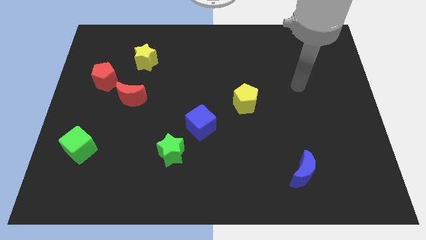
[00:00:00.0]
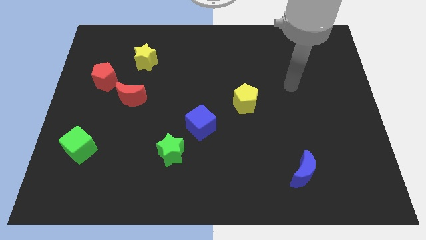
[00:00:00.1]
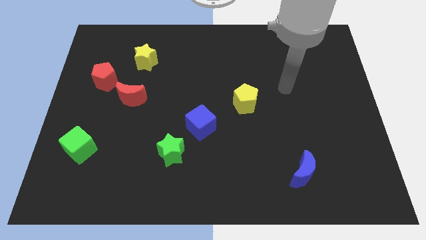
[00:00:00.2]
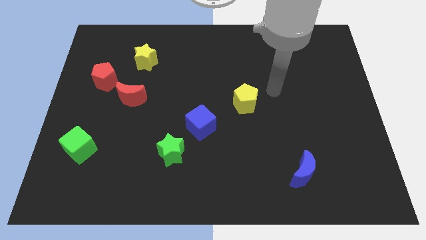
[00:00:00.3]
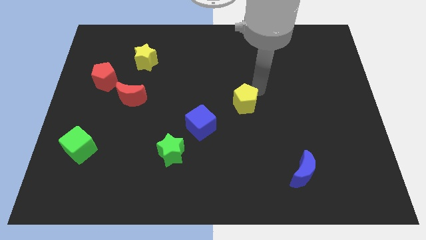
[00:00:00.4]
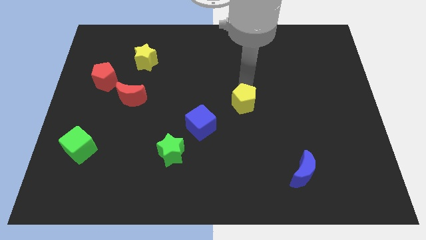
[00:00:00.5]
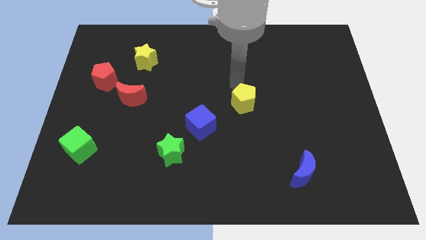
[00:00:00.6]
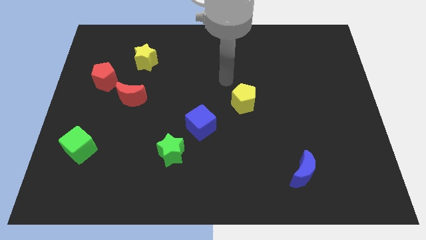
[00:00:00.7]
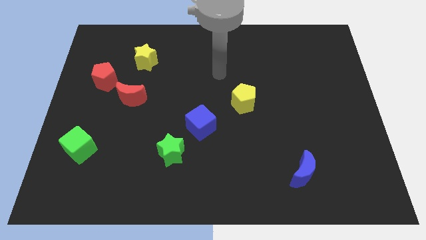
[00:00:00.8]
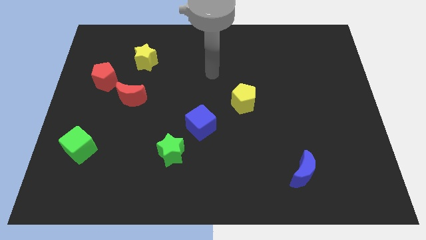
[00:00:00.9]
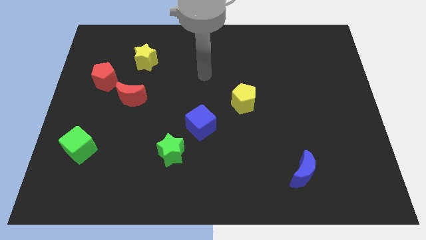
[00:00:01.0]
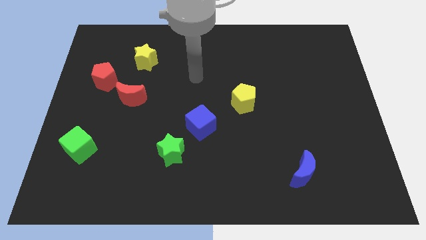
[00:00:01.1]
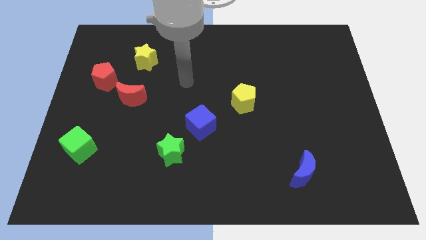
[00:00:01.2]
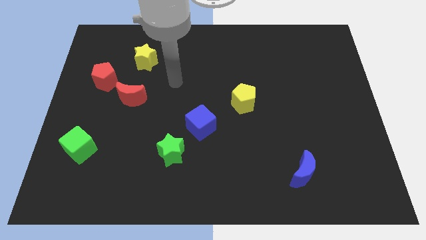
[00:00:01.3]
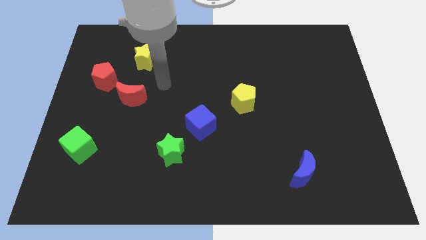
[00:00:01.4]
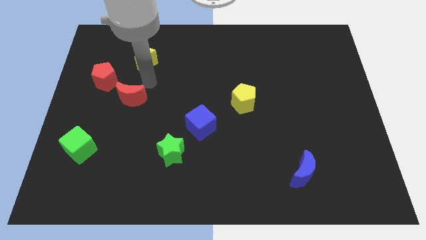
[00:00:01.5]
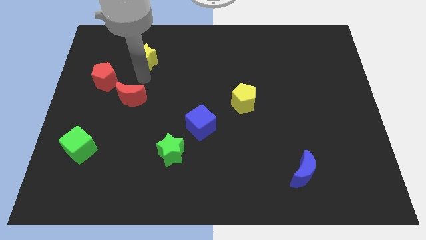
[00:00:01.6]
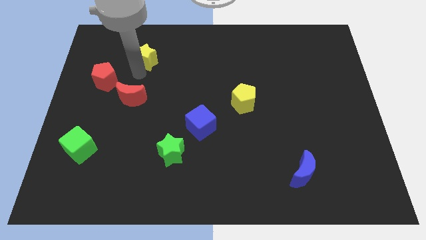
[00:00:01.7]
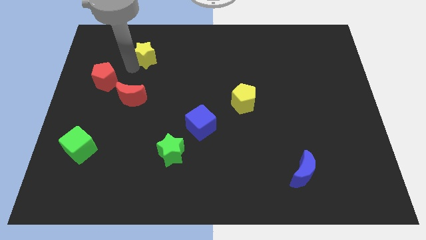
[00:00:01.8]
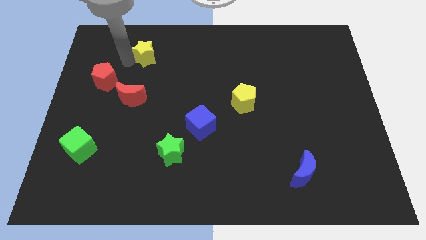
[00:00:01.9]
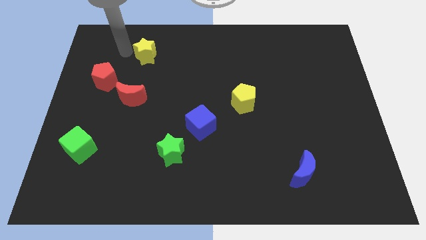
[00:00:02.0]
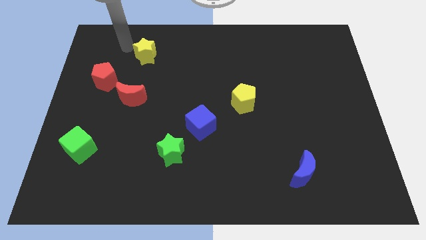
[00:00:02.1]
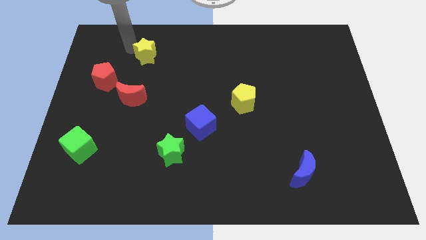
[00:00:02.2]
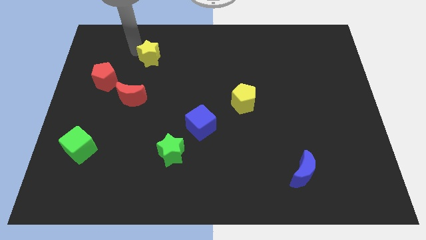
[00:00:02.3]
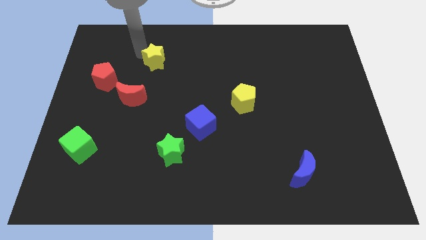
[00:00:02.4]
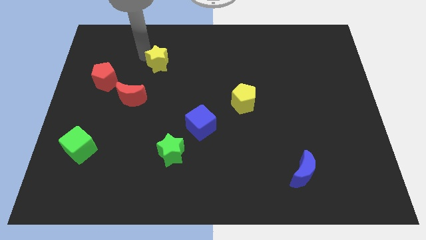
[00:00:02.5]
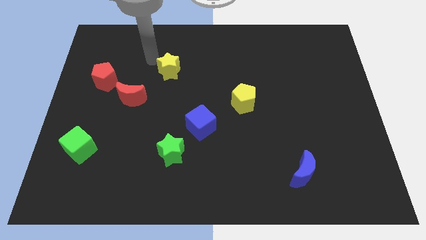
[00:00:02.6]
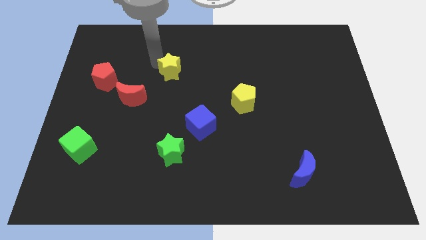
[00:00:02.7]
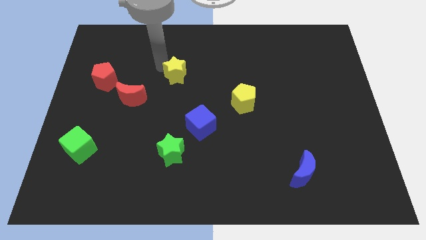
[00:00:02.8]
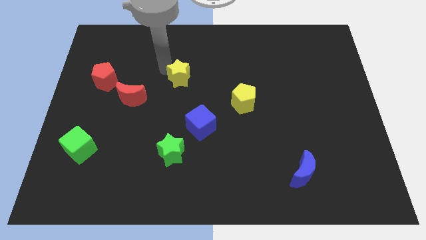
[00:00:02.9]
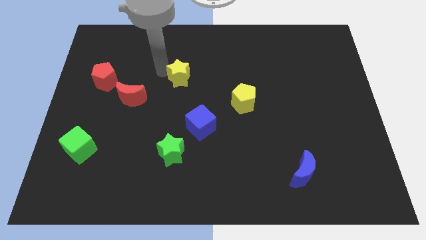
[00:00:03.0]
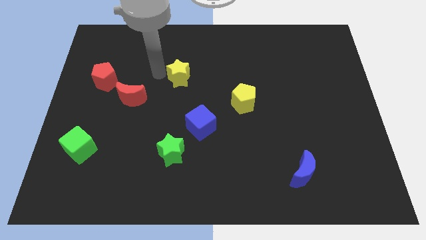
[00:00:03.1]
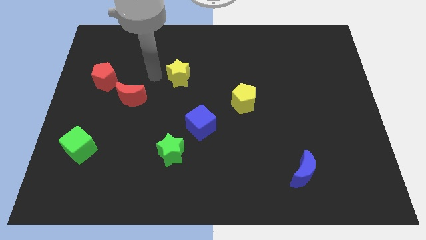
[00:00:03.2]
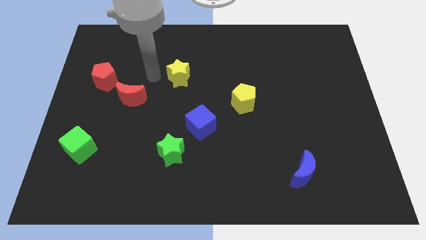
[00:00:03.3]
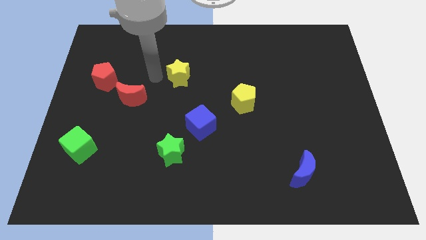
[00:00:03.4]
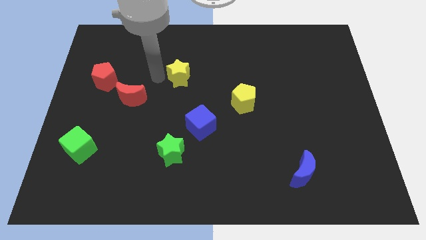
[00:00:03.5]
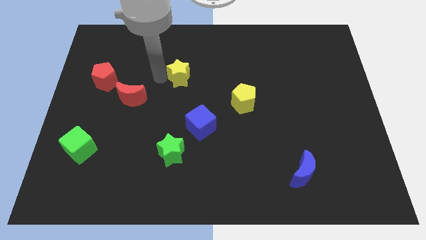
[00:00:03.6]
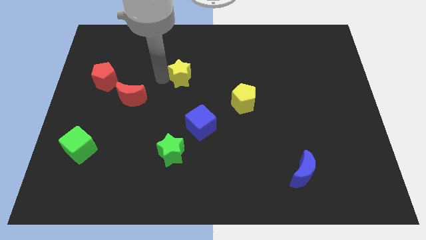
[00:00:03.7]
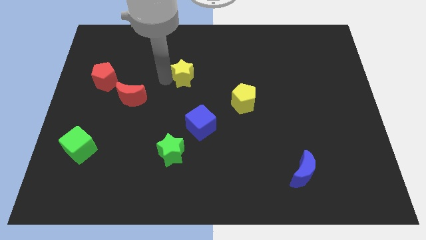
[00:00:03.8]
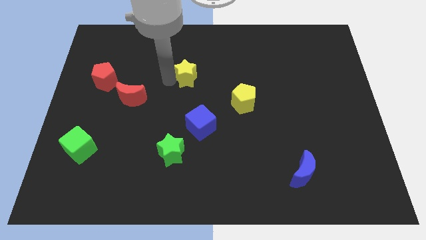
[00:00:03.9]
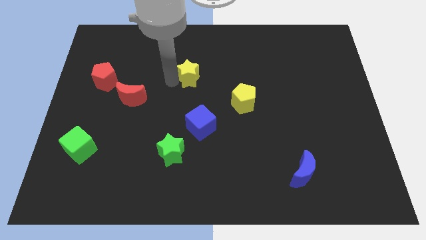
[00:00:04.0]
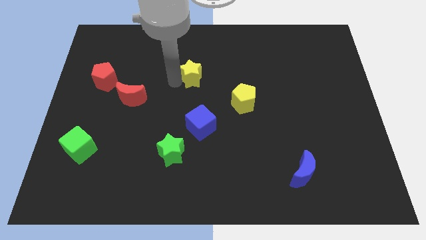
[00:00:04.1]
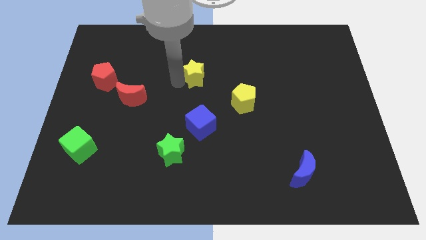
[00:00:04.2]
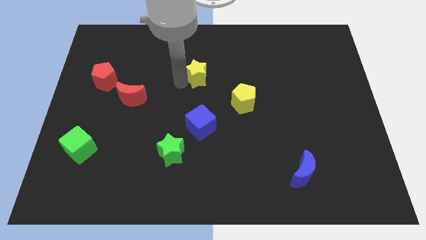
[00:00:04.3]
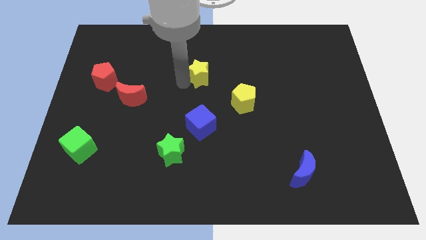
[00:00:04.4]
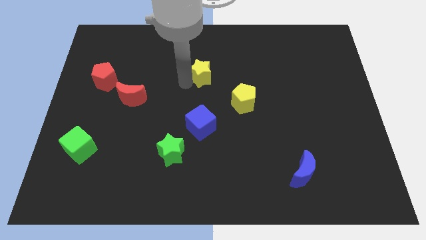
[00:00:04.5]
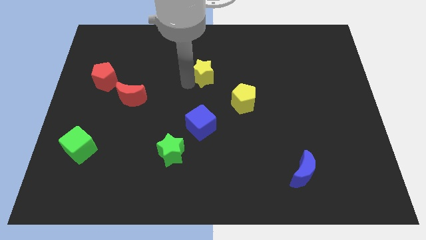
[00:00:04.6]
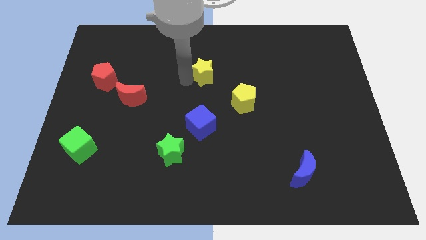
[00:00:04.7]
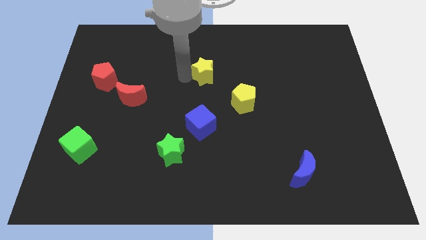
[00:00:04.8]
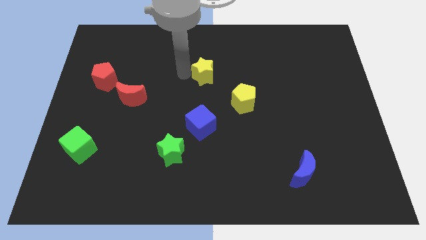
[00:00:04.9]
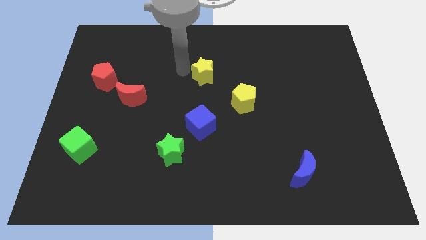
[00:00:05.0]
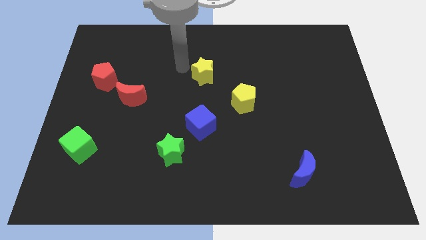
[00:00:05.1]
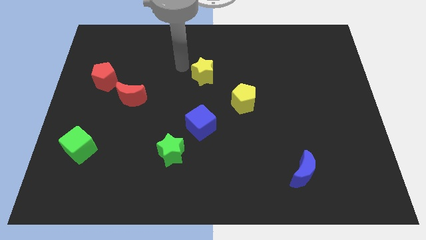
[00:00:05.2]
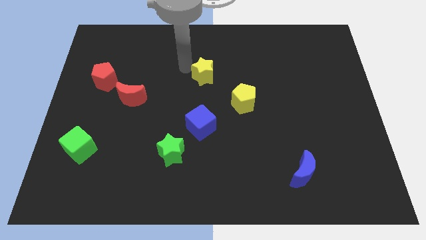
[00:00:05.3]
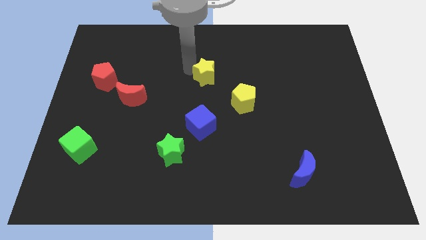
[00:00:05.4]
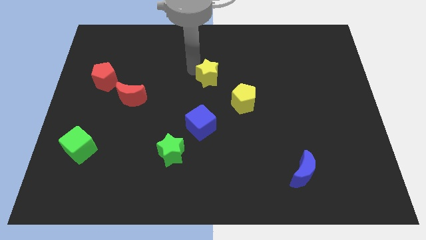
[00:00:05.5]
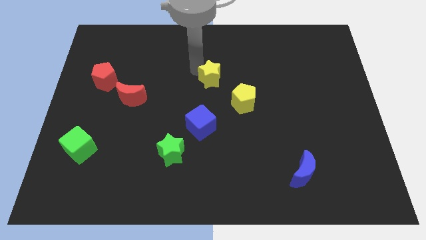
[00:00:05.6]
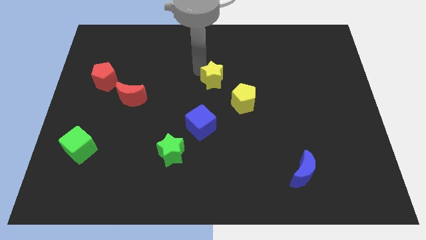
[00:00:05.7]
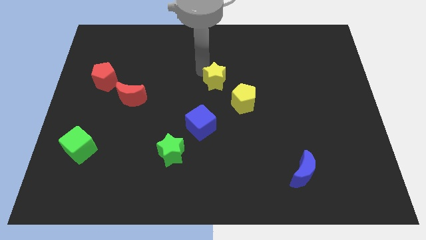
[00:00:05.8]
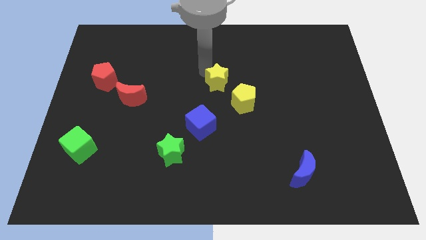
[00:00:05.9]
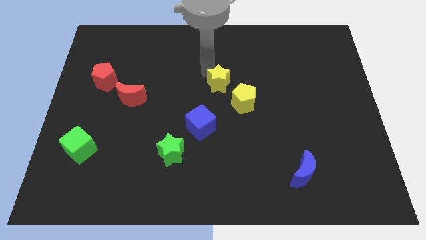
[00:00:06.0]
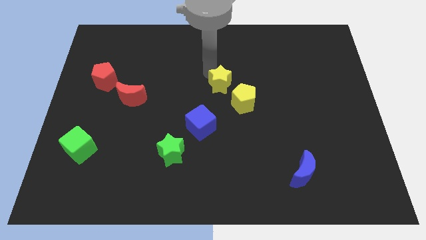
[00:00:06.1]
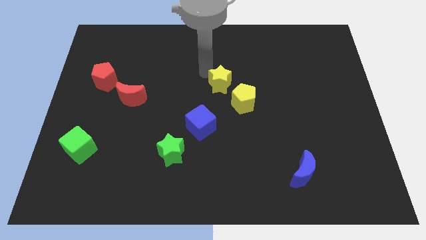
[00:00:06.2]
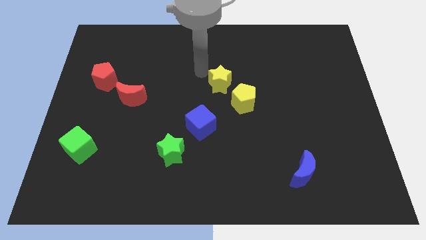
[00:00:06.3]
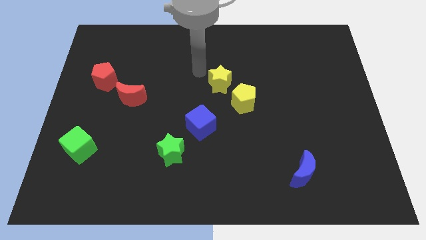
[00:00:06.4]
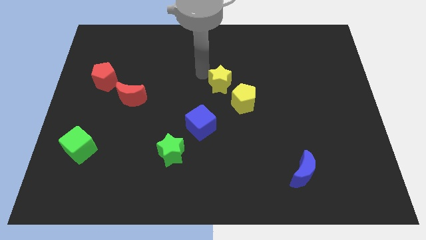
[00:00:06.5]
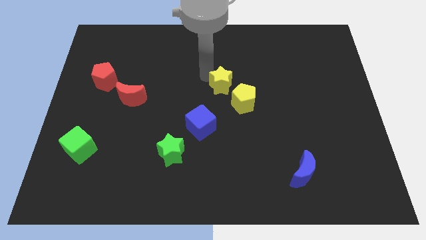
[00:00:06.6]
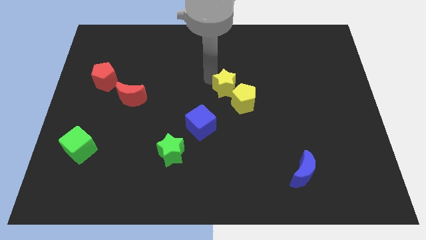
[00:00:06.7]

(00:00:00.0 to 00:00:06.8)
push the yellow star to the yellow pentagon

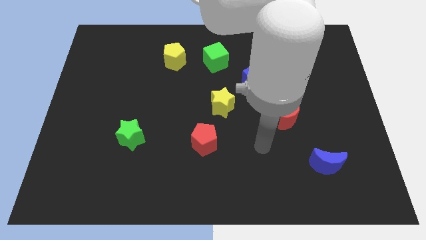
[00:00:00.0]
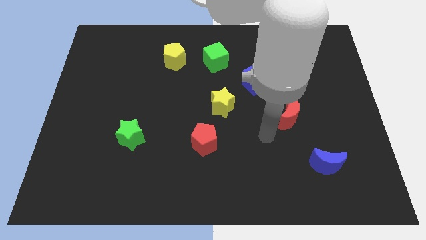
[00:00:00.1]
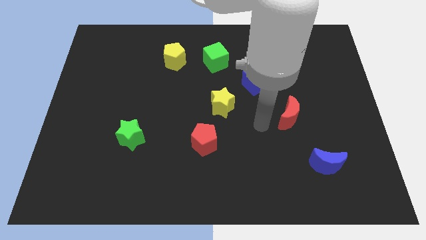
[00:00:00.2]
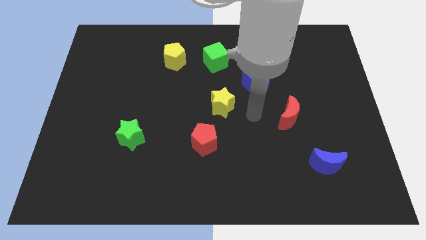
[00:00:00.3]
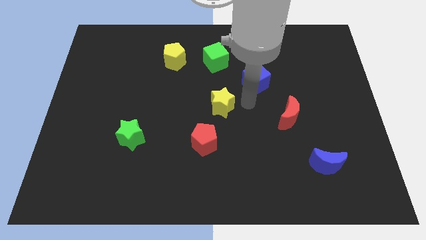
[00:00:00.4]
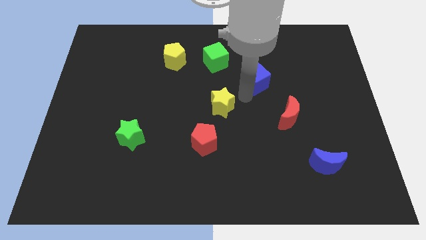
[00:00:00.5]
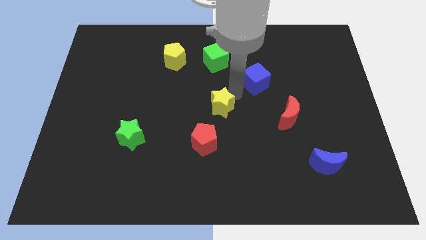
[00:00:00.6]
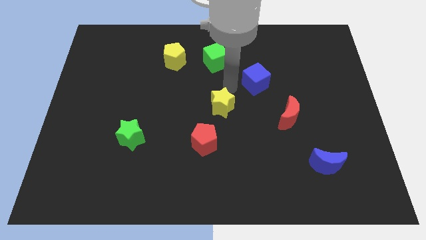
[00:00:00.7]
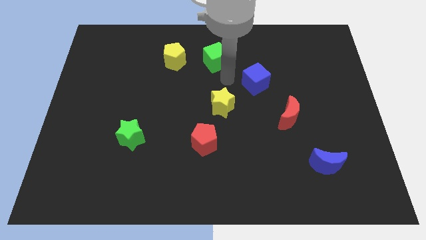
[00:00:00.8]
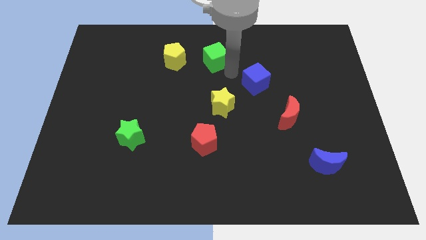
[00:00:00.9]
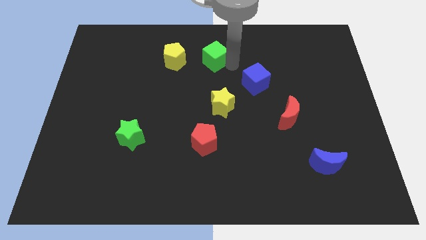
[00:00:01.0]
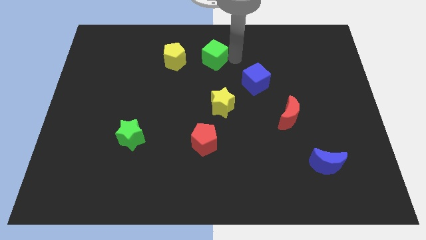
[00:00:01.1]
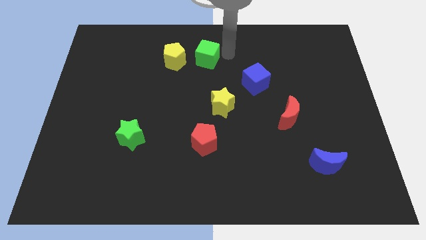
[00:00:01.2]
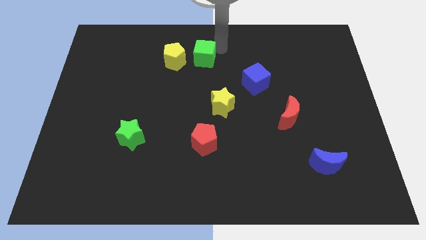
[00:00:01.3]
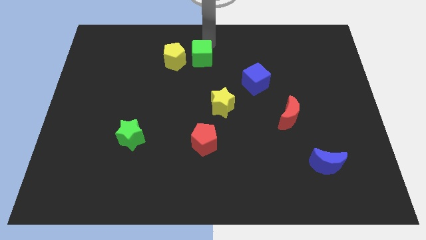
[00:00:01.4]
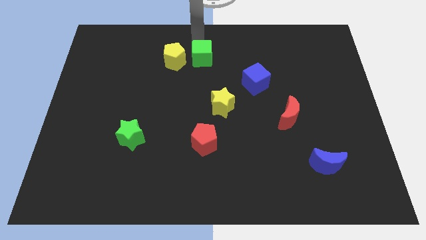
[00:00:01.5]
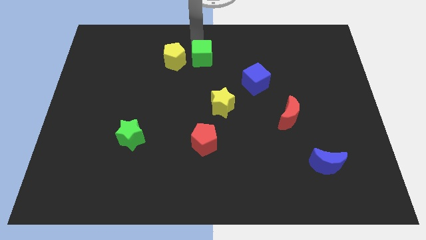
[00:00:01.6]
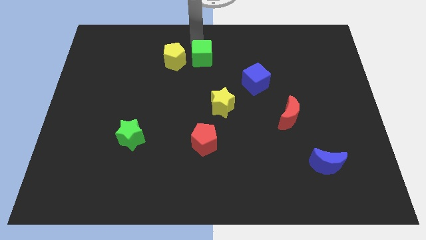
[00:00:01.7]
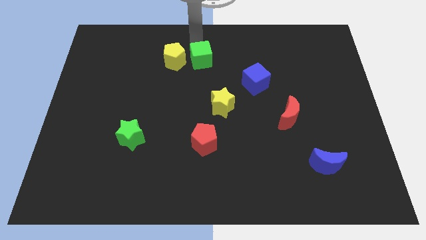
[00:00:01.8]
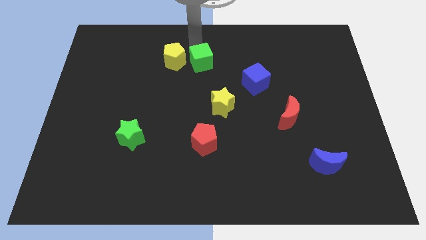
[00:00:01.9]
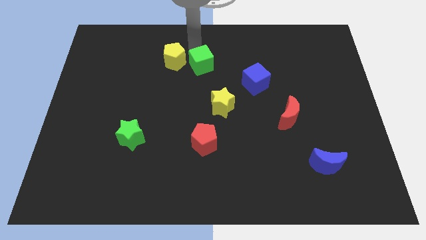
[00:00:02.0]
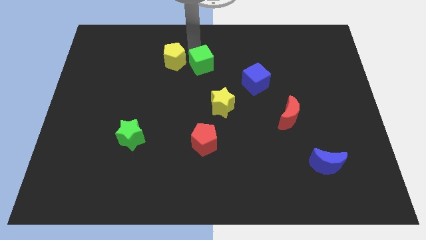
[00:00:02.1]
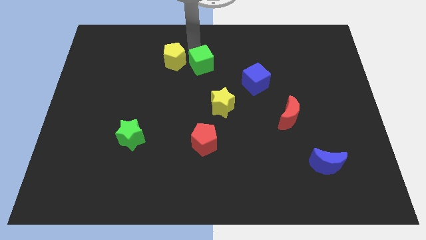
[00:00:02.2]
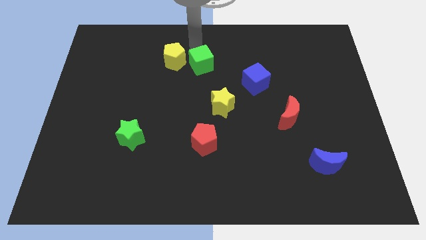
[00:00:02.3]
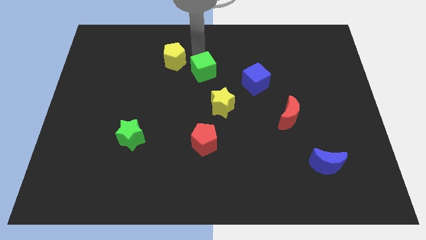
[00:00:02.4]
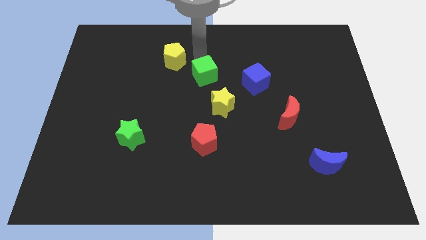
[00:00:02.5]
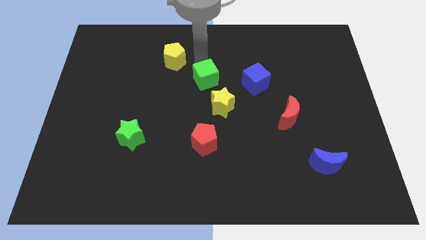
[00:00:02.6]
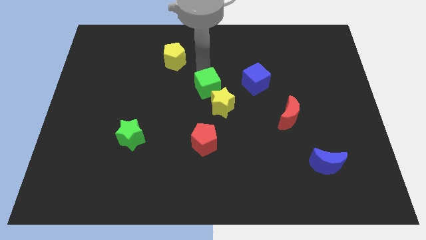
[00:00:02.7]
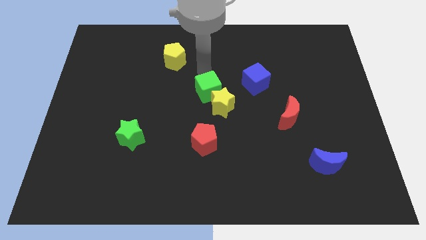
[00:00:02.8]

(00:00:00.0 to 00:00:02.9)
slide the green cube next to the yellow star
